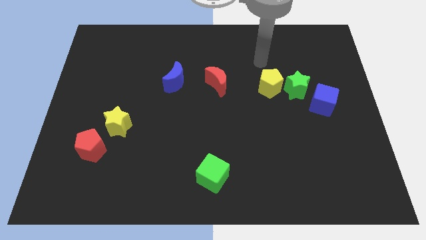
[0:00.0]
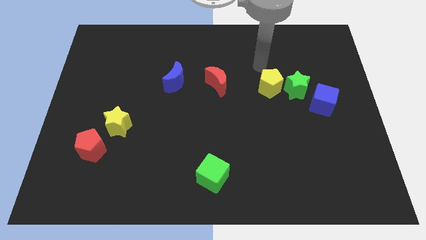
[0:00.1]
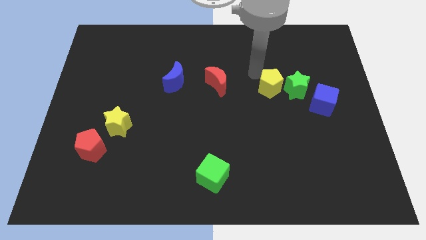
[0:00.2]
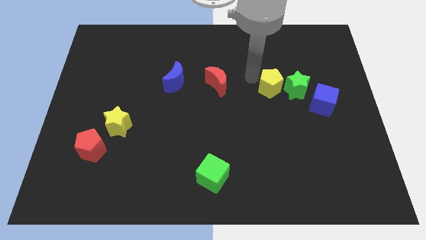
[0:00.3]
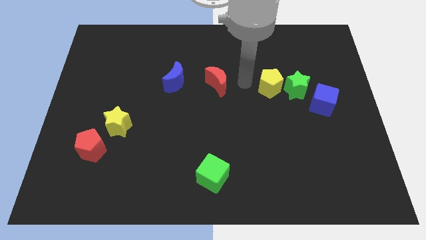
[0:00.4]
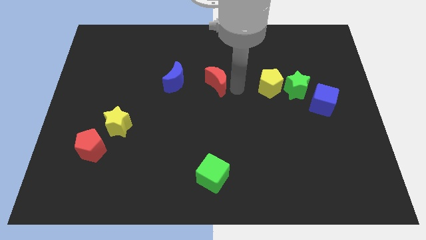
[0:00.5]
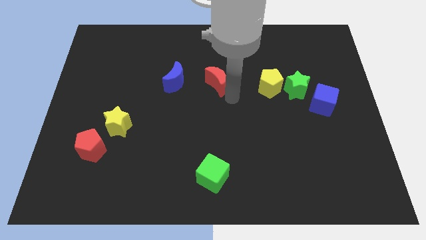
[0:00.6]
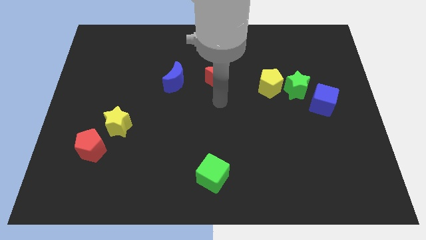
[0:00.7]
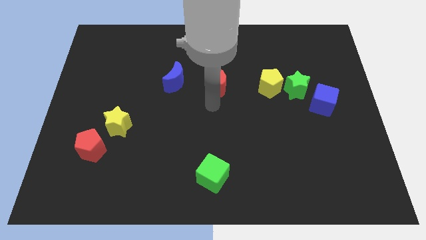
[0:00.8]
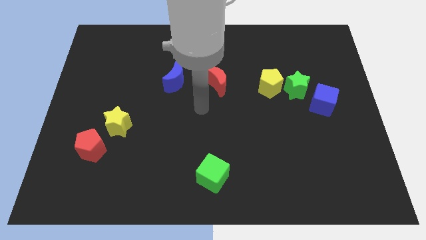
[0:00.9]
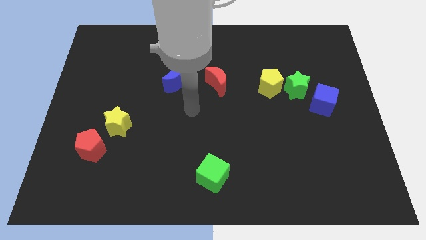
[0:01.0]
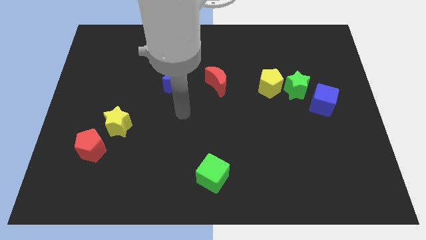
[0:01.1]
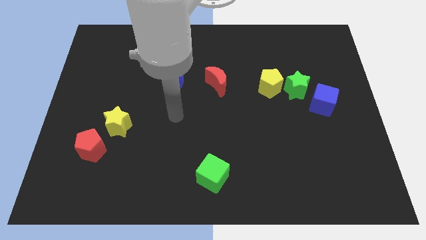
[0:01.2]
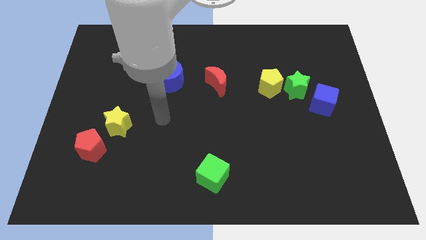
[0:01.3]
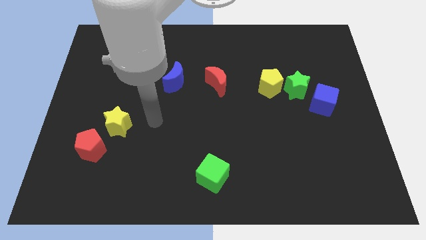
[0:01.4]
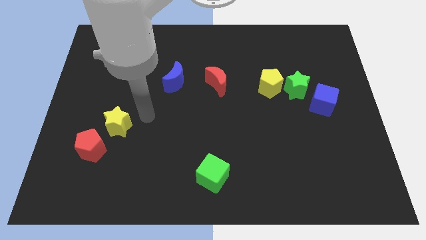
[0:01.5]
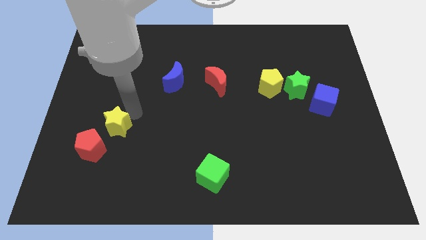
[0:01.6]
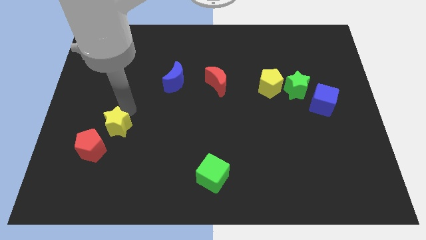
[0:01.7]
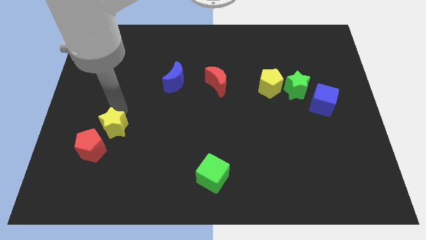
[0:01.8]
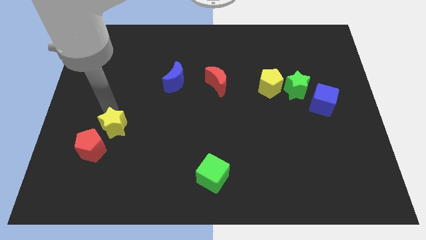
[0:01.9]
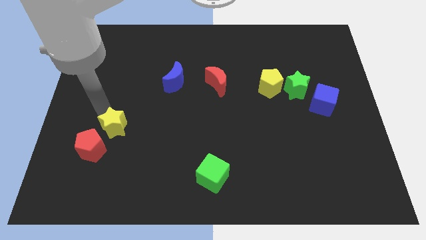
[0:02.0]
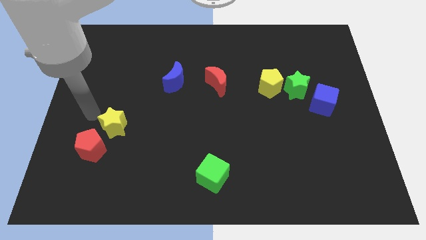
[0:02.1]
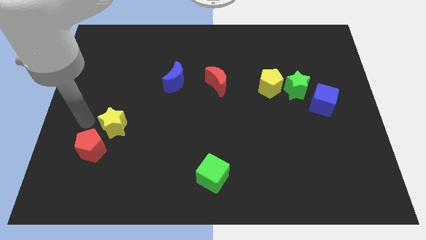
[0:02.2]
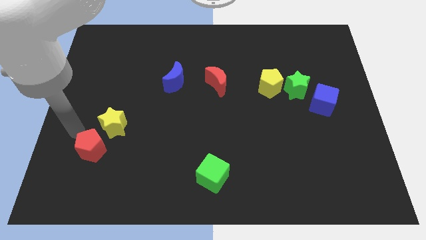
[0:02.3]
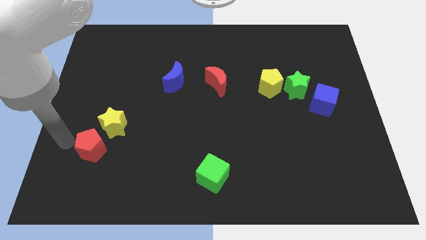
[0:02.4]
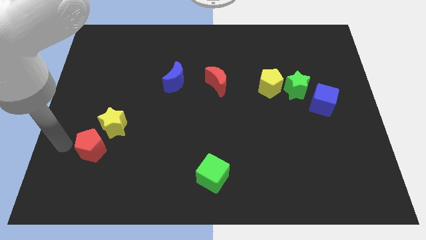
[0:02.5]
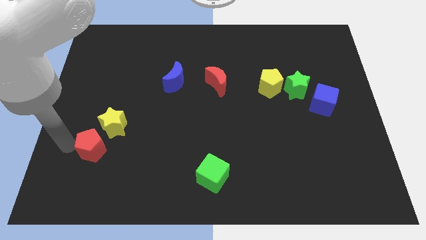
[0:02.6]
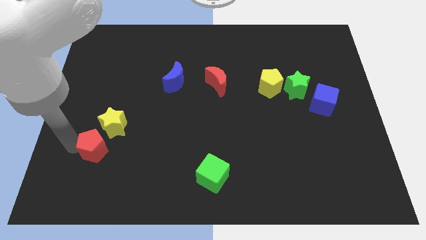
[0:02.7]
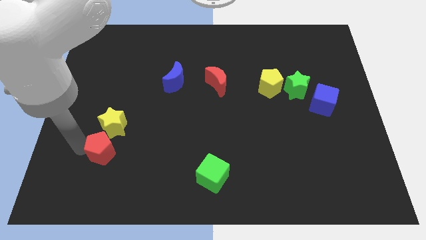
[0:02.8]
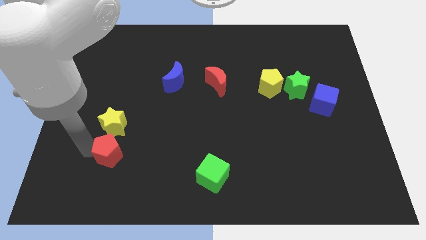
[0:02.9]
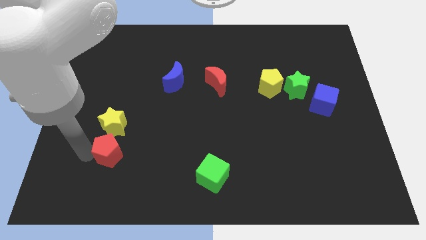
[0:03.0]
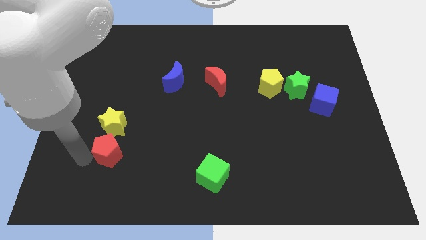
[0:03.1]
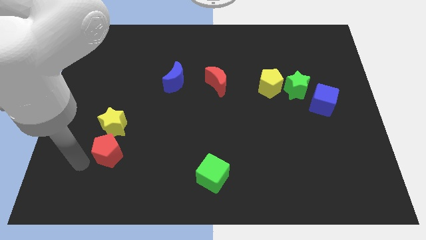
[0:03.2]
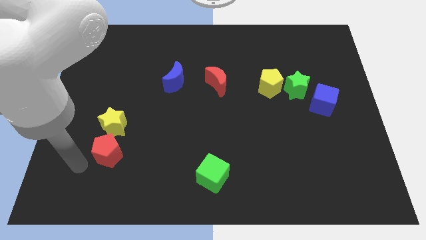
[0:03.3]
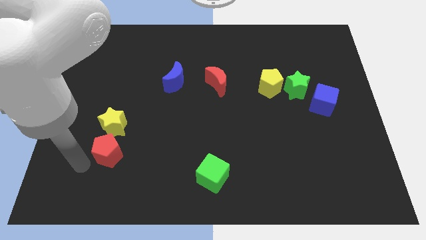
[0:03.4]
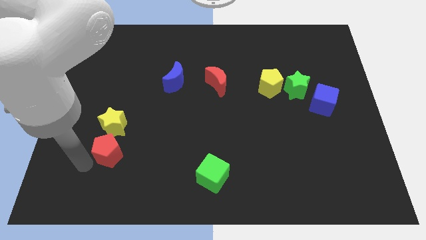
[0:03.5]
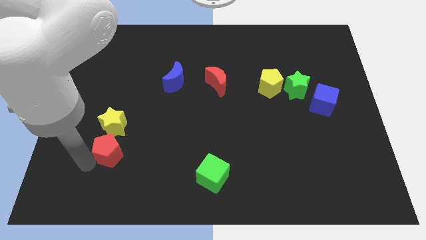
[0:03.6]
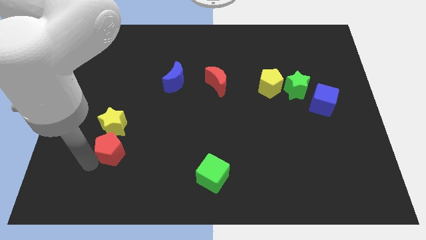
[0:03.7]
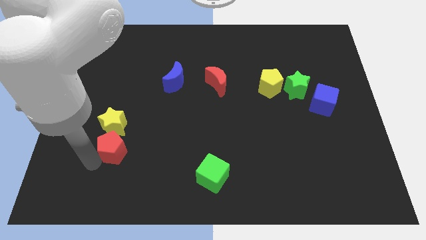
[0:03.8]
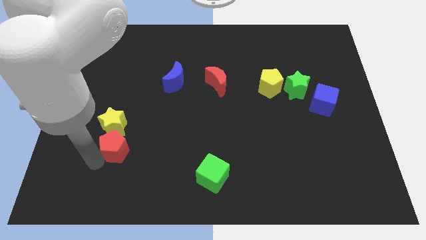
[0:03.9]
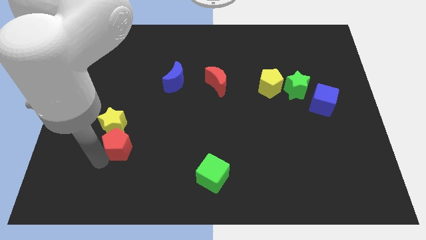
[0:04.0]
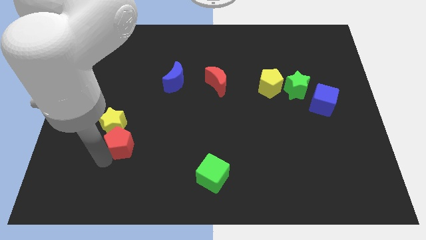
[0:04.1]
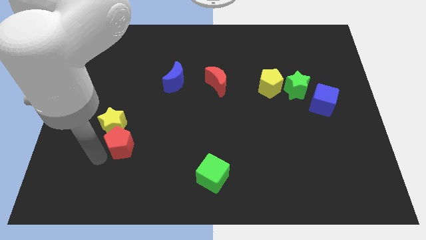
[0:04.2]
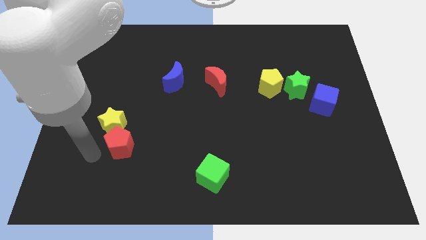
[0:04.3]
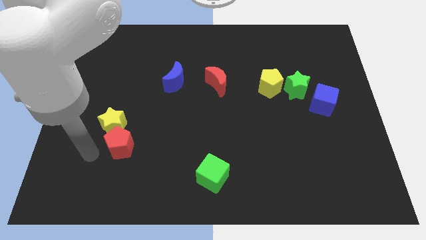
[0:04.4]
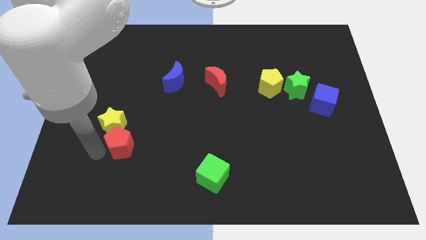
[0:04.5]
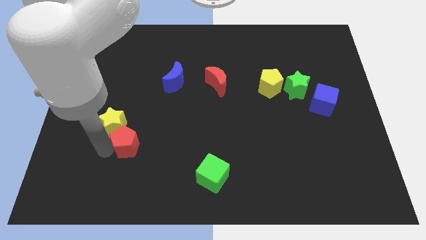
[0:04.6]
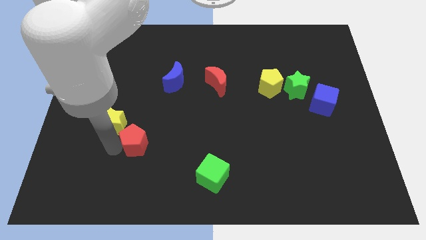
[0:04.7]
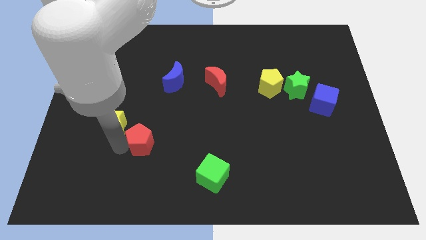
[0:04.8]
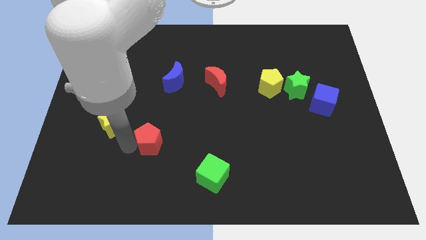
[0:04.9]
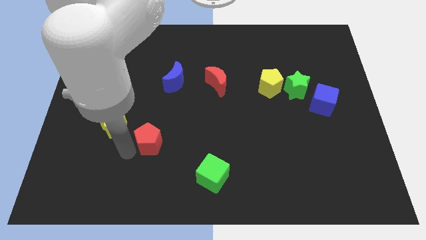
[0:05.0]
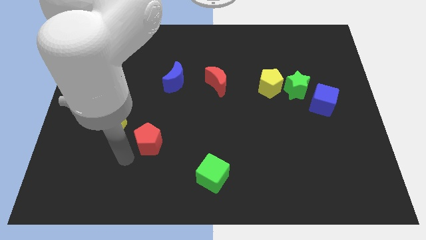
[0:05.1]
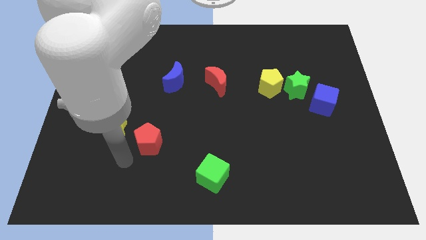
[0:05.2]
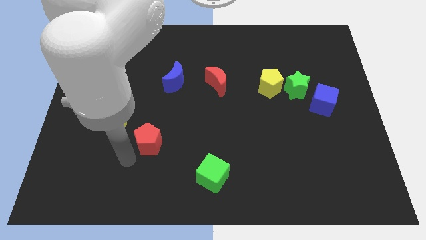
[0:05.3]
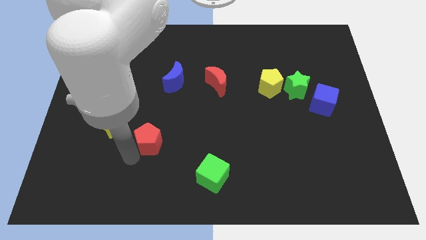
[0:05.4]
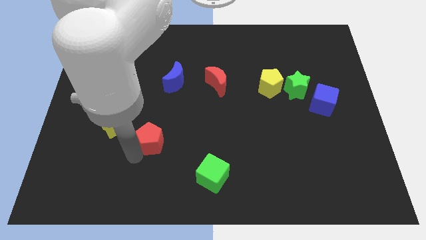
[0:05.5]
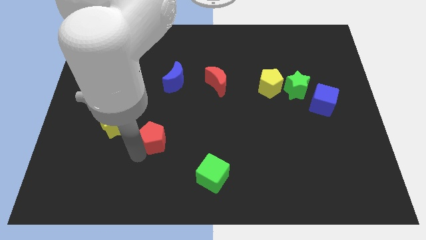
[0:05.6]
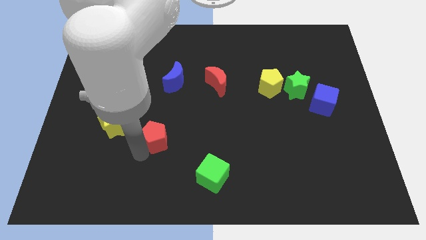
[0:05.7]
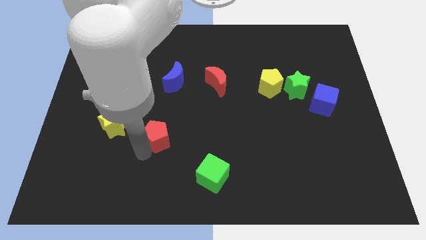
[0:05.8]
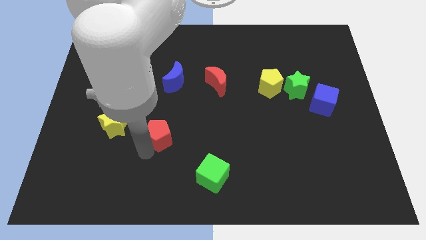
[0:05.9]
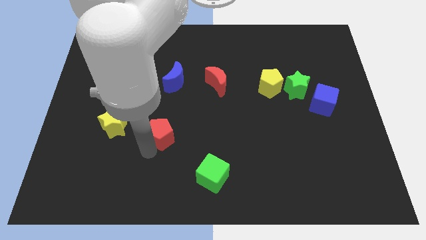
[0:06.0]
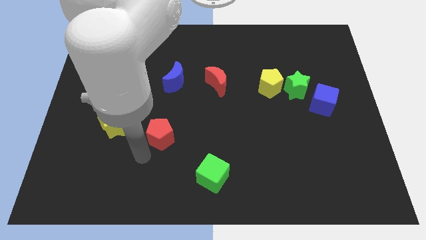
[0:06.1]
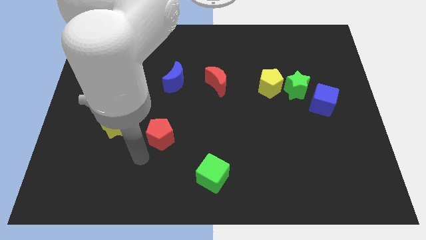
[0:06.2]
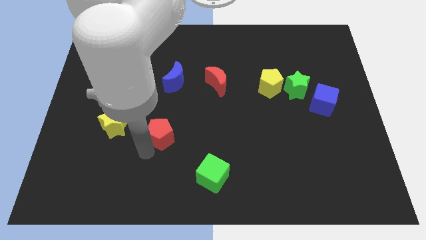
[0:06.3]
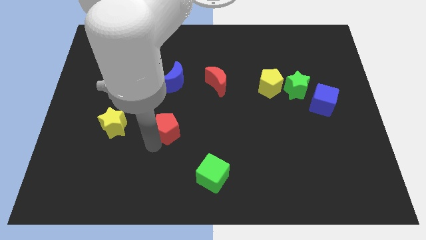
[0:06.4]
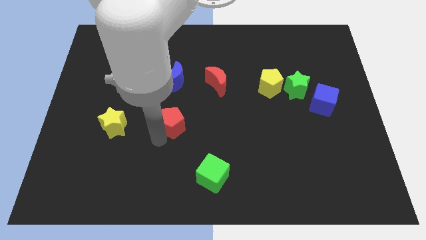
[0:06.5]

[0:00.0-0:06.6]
push the red pentagon to the center of the board

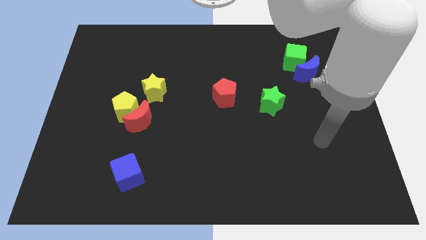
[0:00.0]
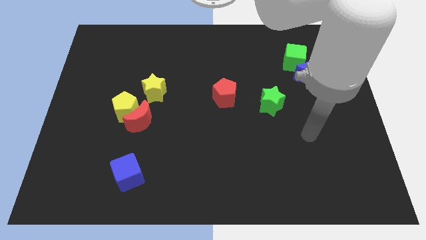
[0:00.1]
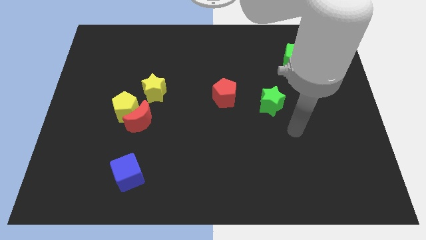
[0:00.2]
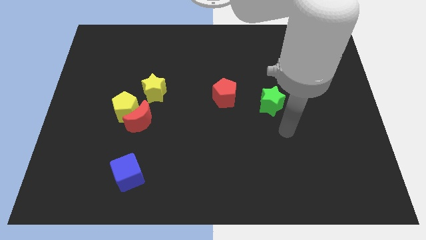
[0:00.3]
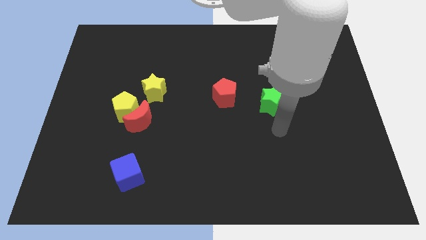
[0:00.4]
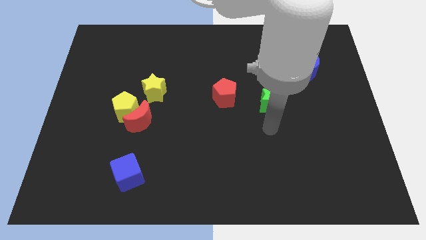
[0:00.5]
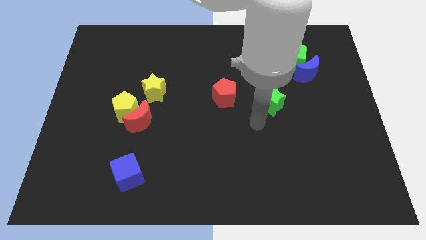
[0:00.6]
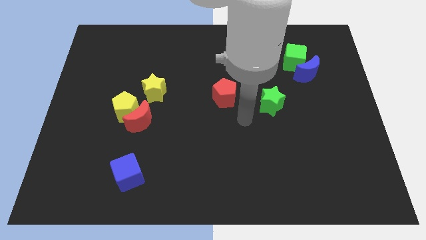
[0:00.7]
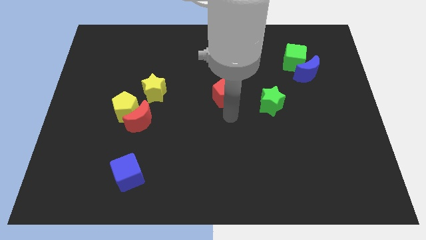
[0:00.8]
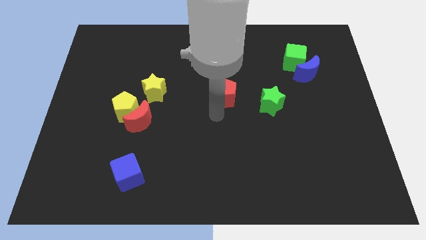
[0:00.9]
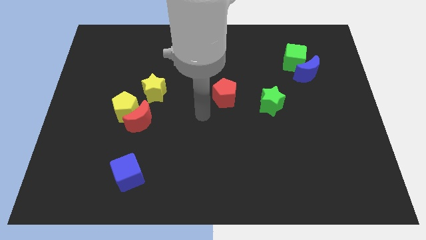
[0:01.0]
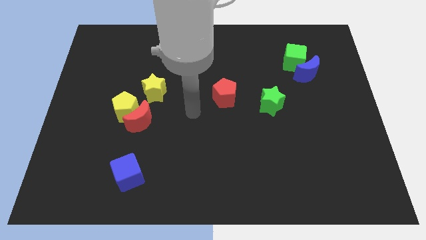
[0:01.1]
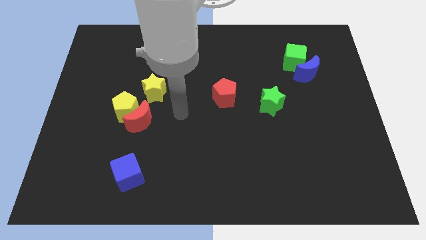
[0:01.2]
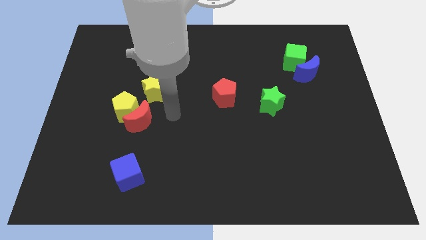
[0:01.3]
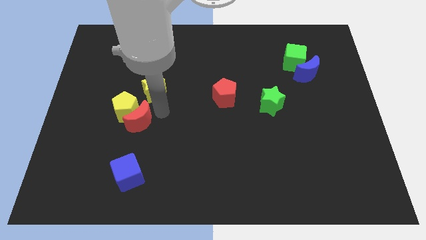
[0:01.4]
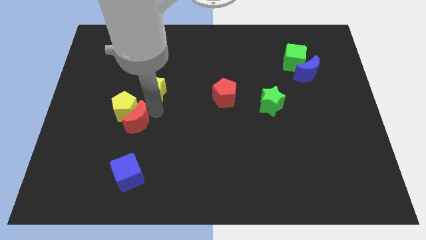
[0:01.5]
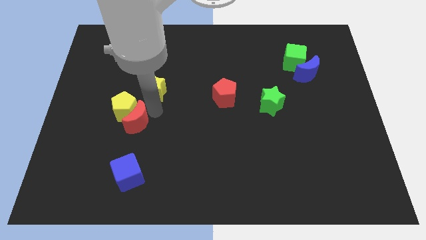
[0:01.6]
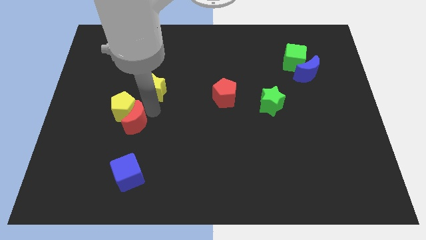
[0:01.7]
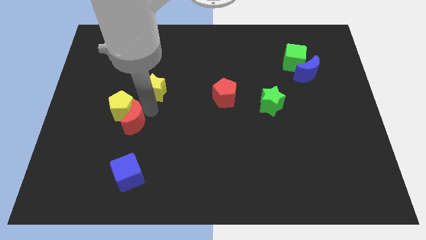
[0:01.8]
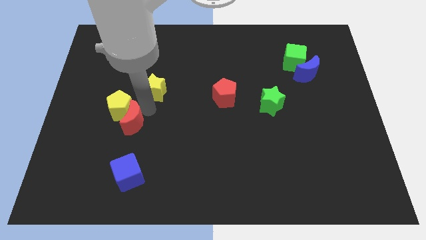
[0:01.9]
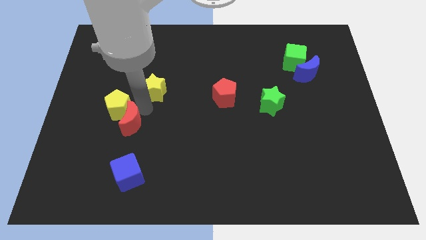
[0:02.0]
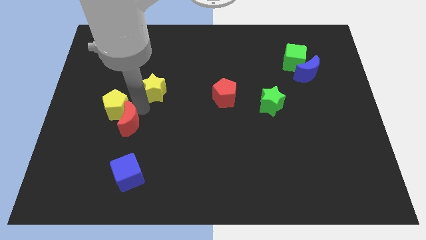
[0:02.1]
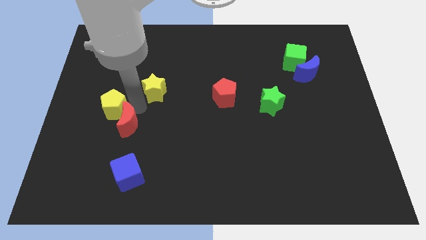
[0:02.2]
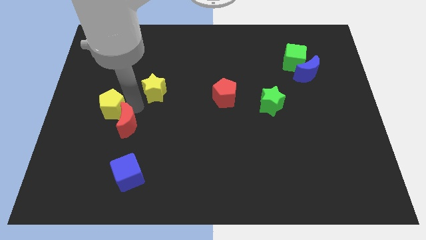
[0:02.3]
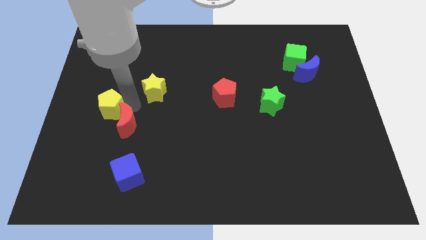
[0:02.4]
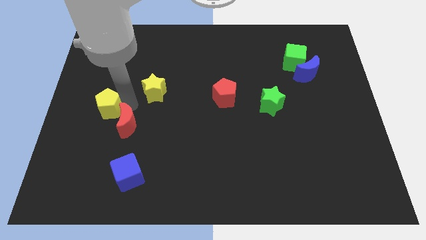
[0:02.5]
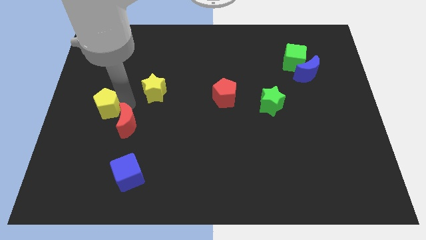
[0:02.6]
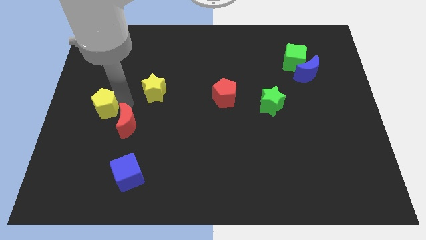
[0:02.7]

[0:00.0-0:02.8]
slide the yellow pentagon to the center left
